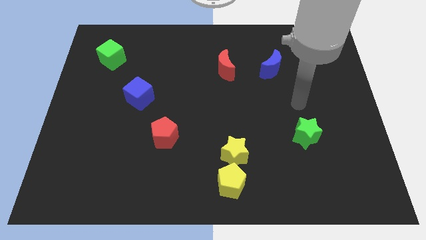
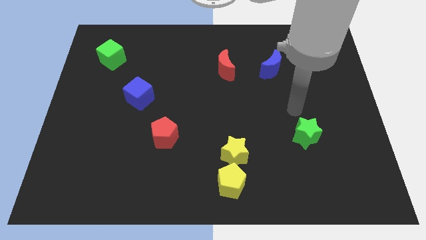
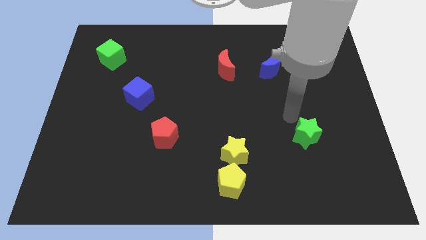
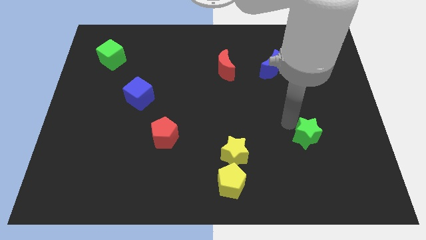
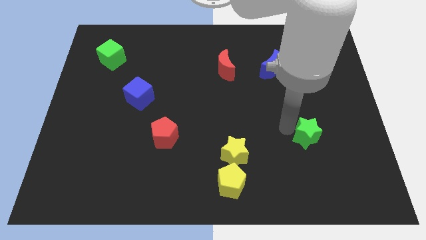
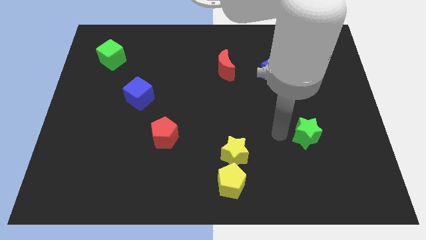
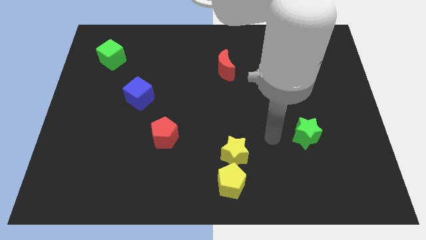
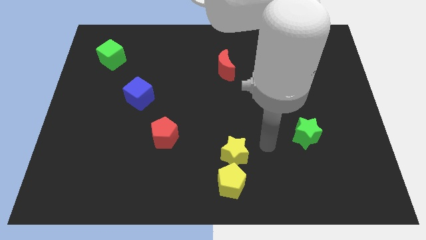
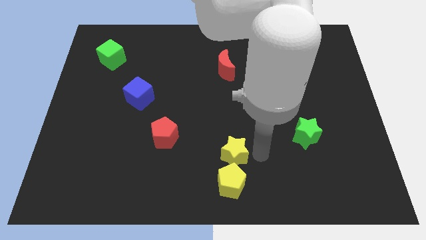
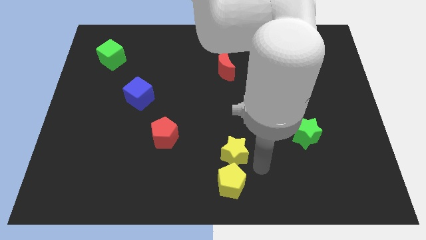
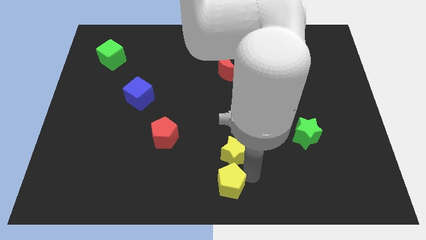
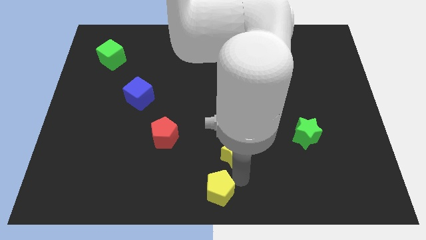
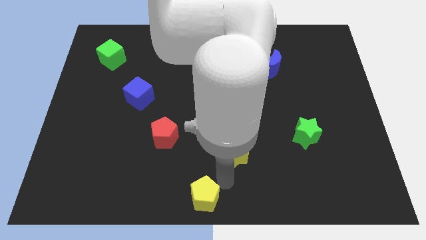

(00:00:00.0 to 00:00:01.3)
pull the yellow star apart from the yellow pentagon

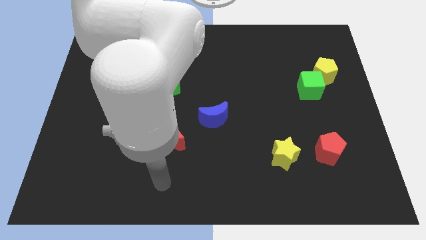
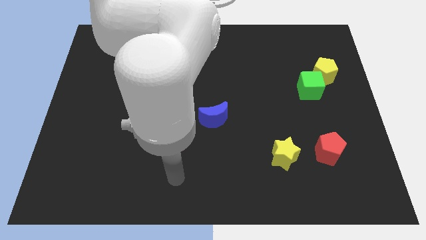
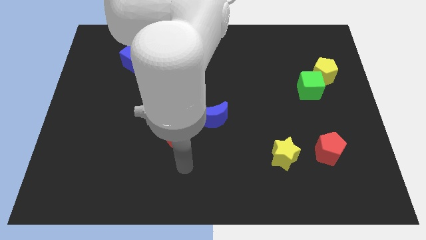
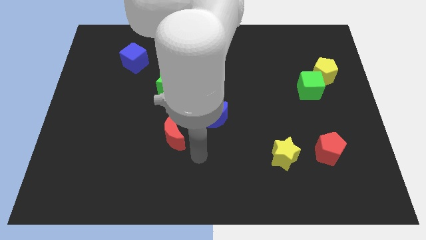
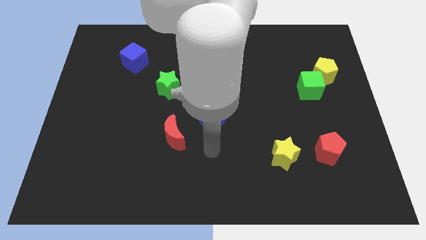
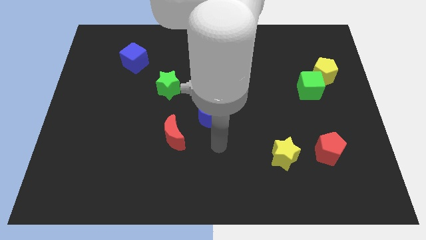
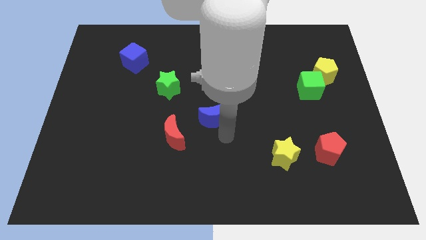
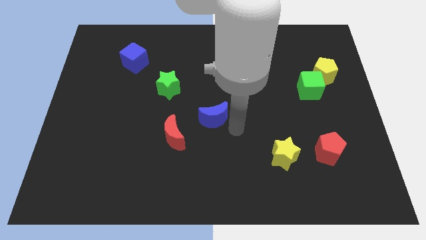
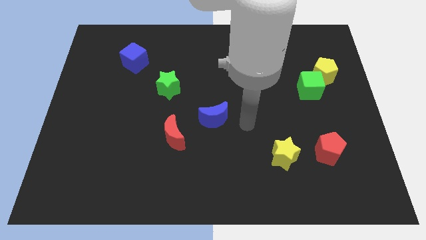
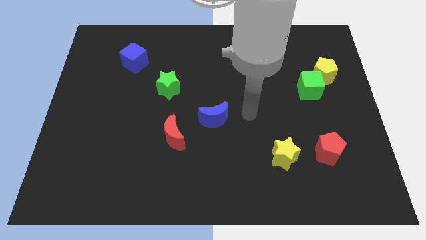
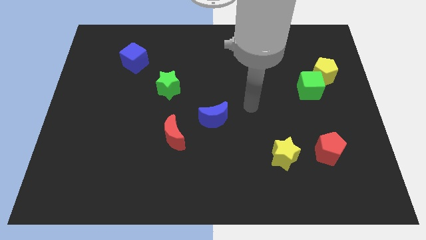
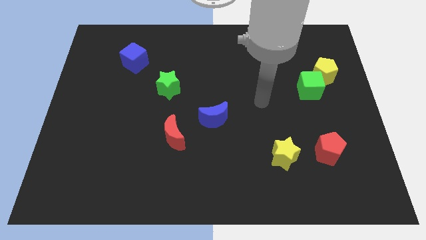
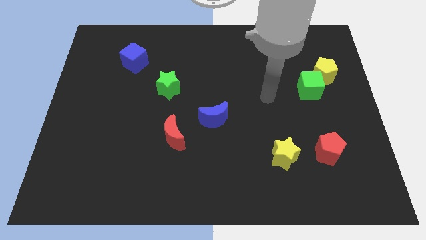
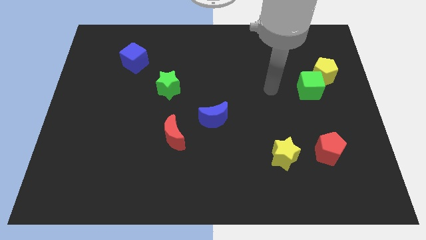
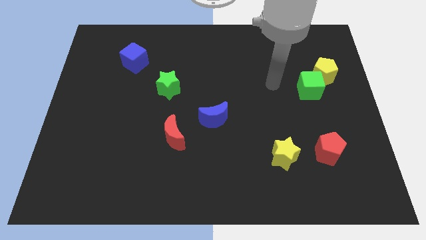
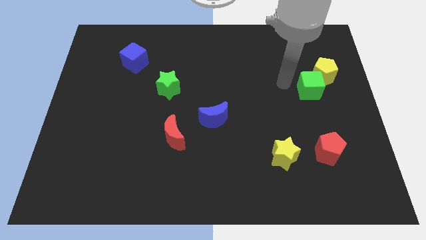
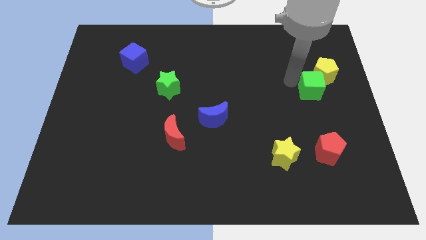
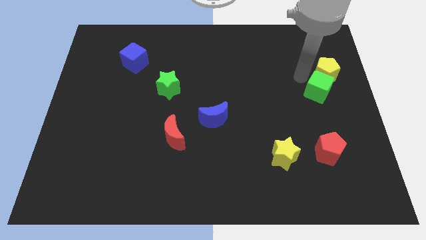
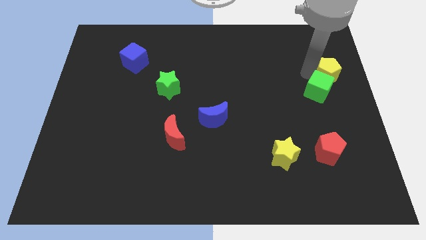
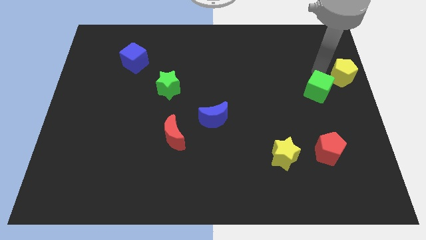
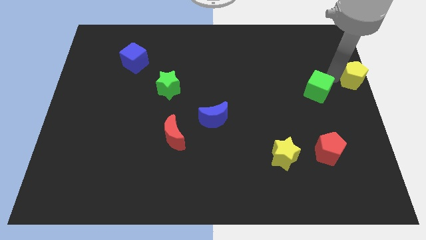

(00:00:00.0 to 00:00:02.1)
separate the green cube from the yellow pentagon

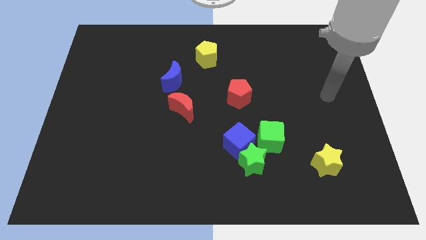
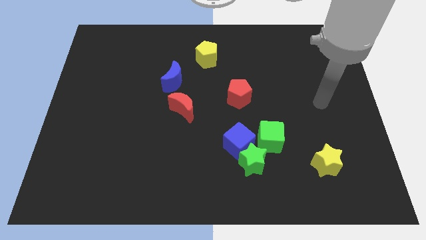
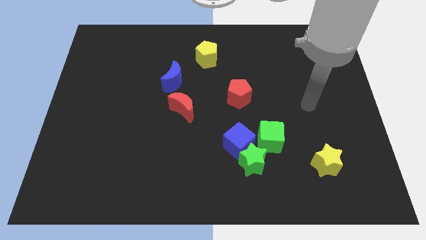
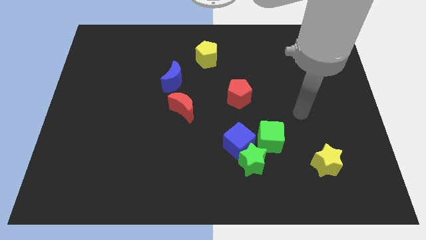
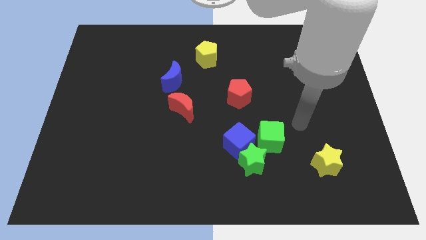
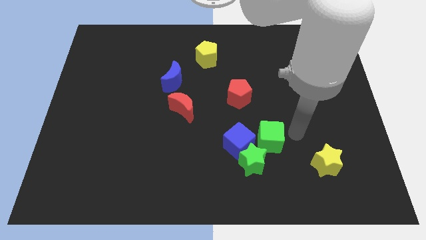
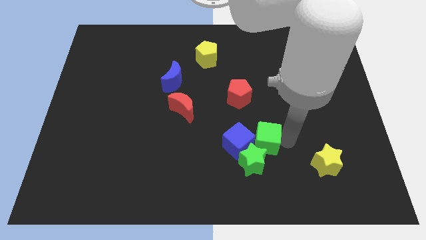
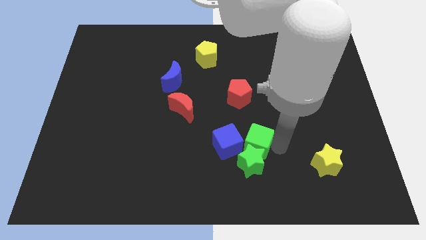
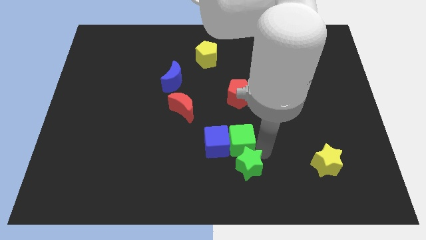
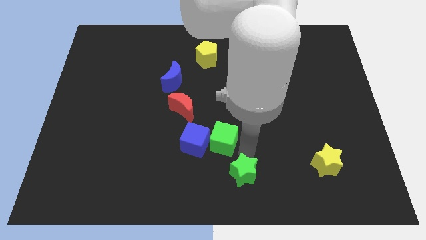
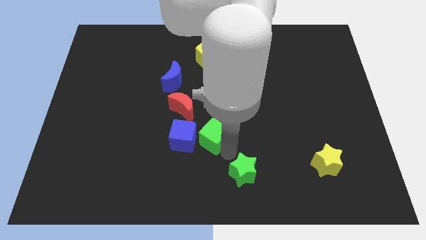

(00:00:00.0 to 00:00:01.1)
separate the blue cube from the green star and green cube

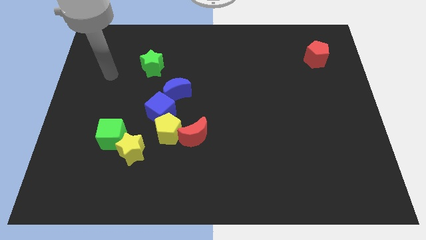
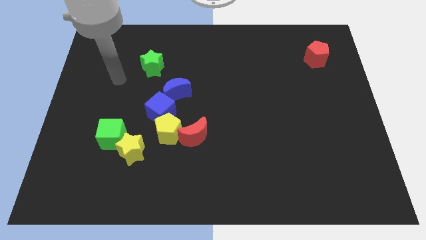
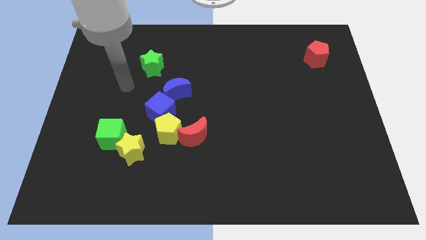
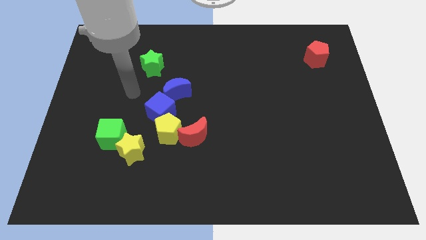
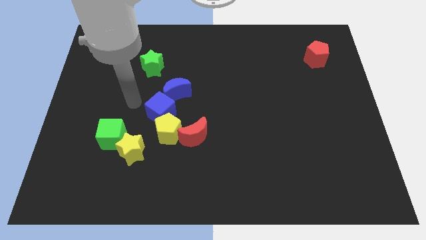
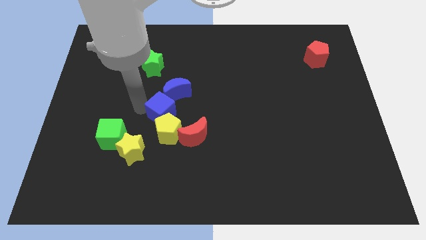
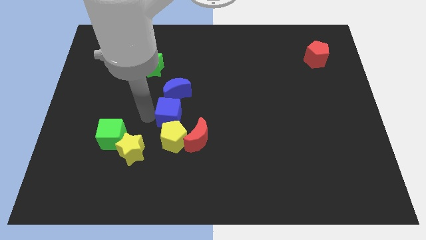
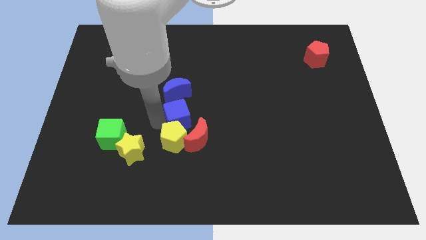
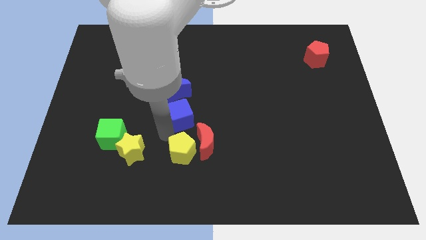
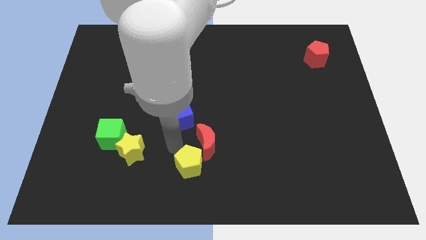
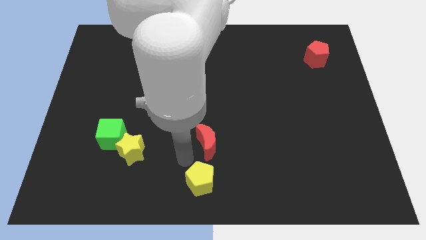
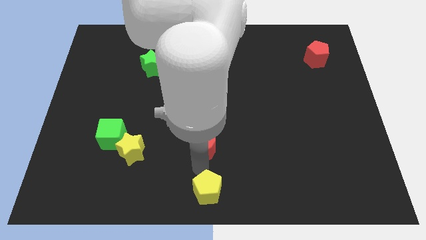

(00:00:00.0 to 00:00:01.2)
pull the red moon apart from the yellow pentagon

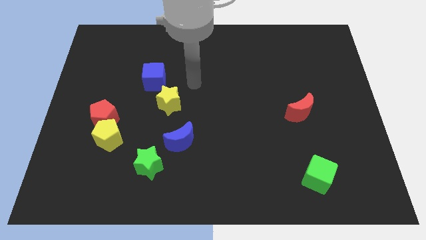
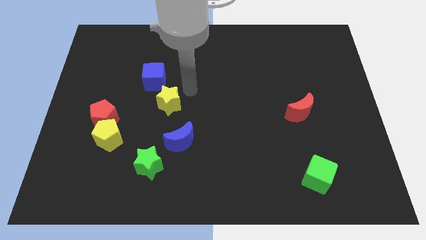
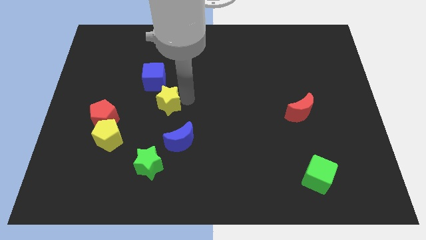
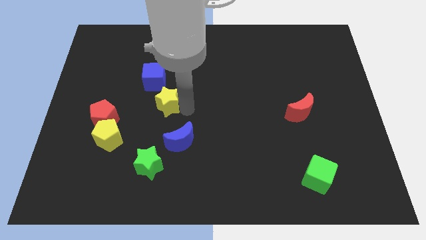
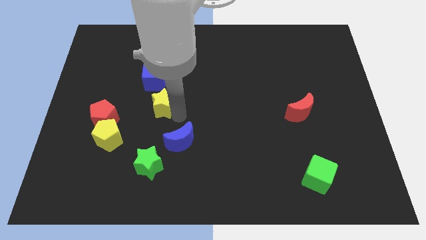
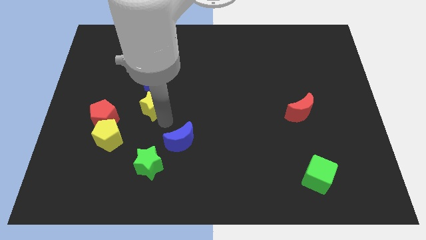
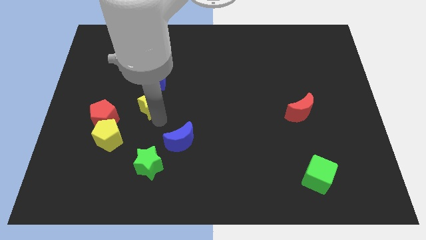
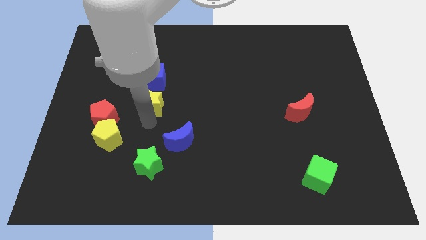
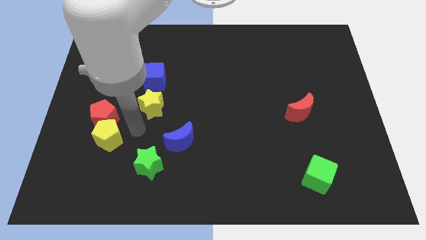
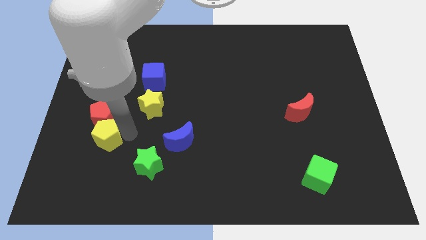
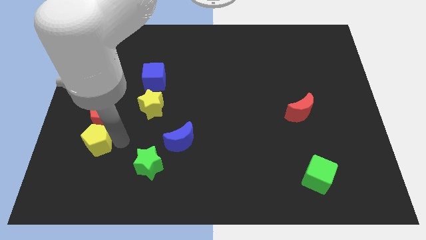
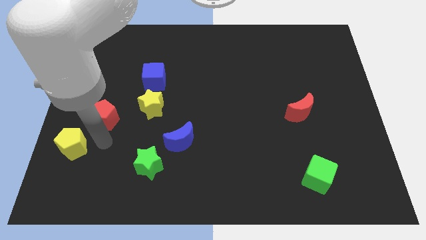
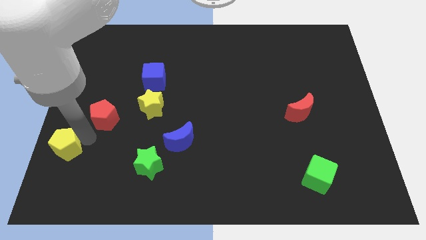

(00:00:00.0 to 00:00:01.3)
pull the red pentagon apart from the yellow pentagon

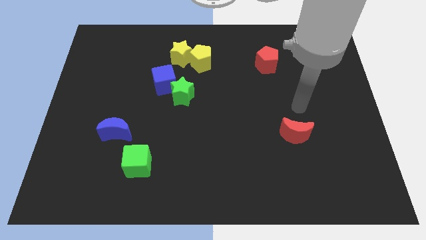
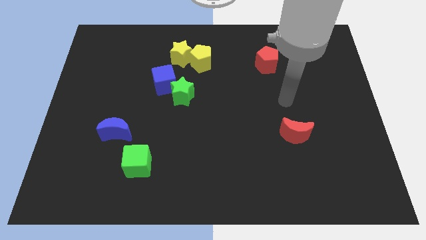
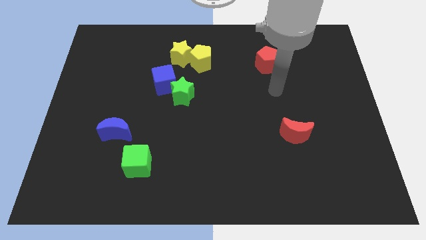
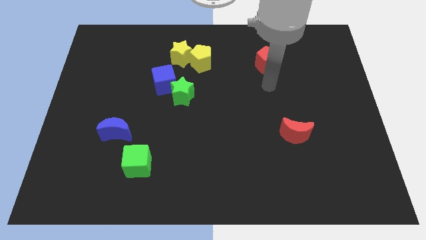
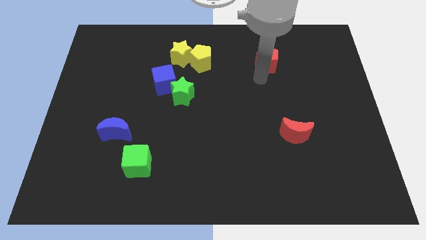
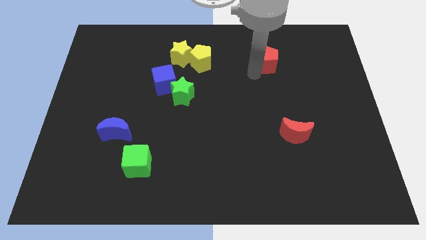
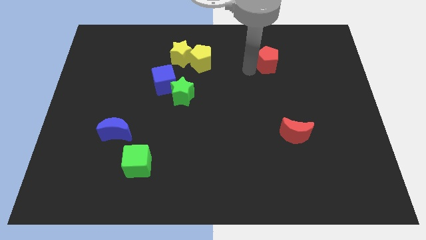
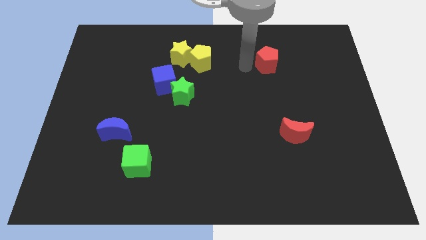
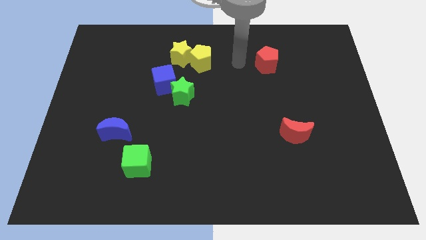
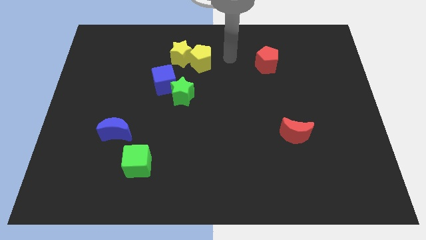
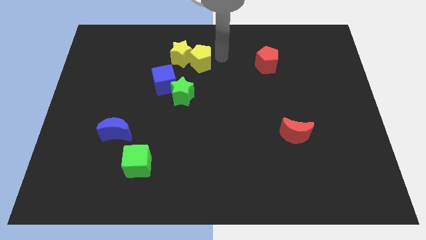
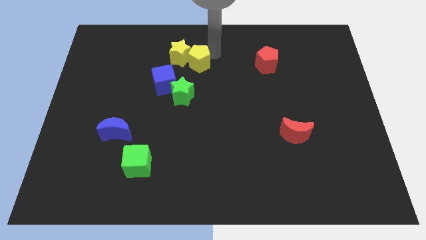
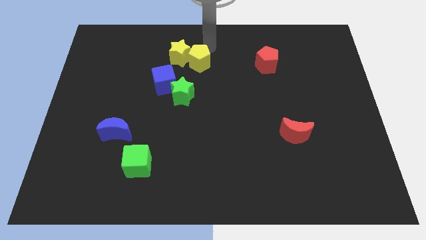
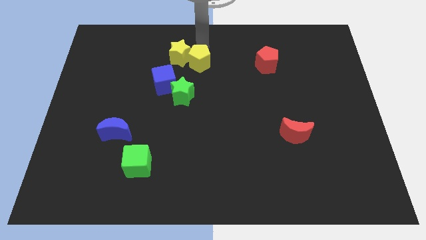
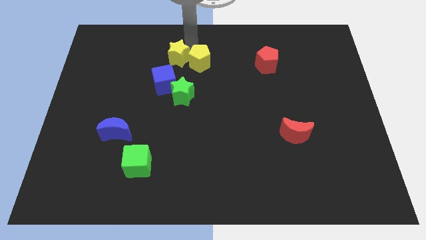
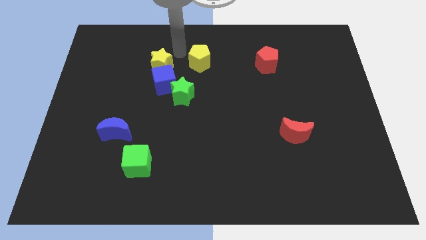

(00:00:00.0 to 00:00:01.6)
pull the yellow pentagon apart from the yellow star

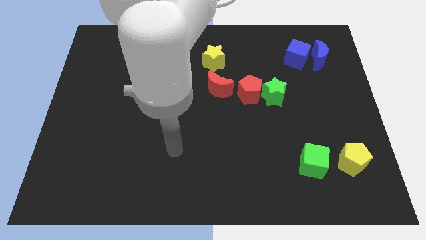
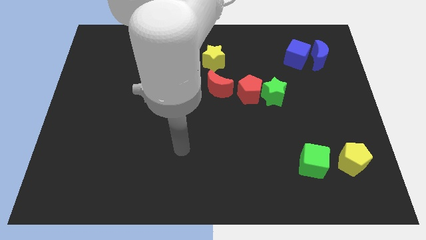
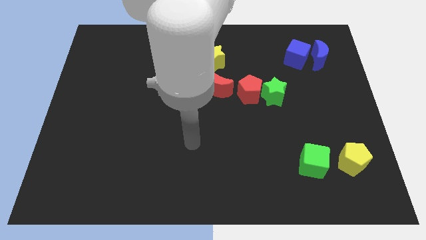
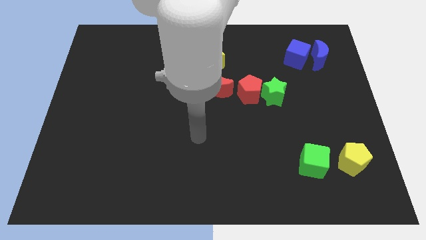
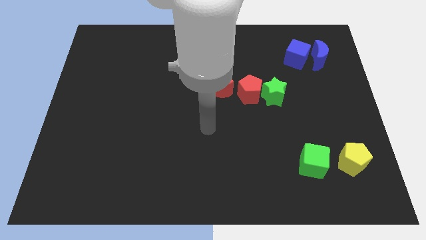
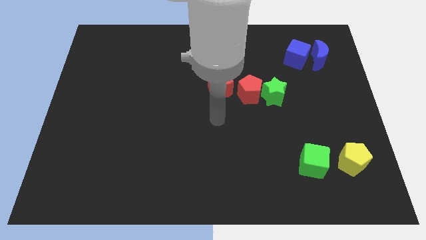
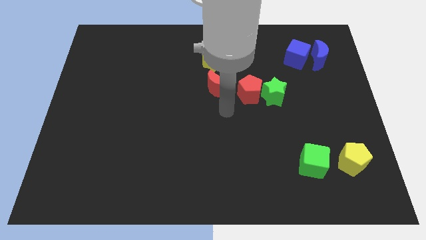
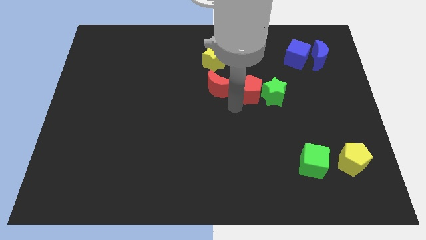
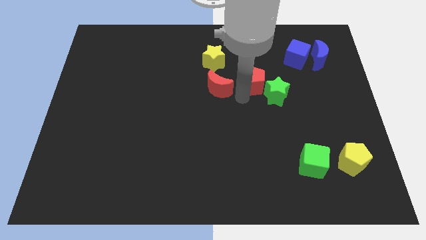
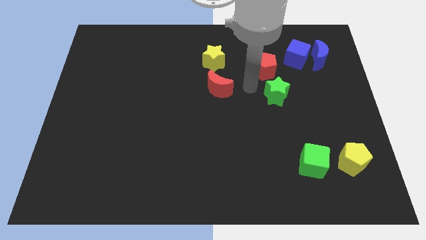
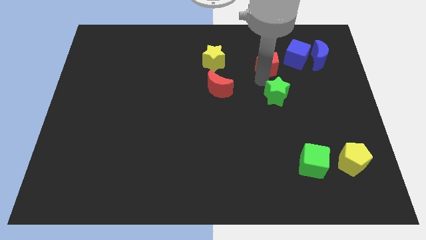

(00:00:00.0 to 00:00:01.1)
pull the green star apart from the red pentagon
